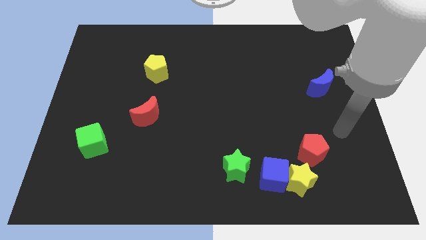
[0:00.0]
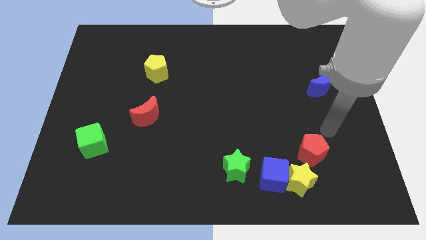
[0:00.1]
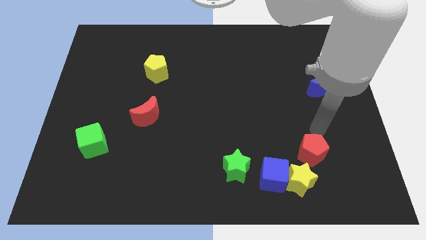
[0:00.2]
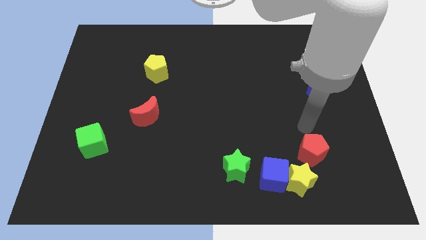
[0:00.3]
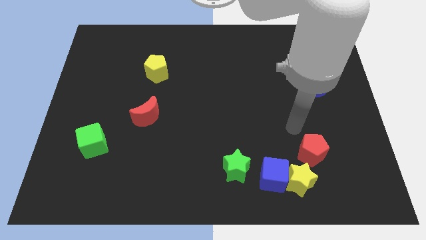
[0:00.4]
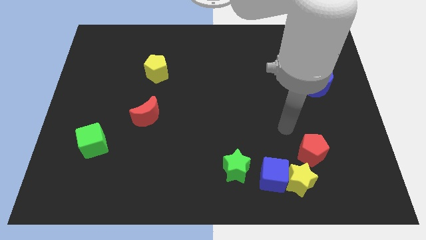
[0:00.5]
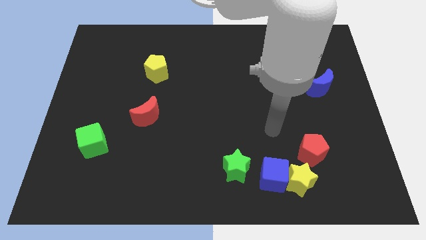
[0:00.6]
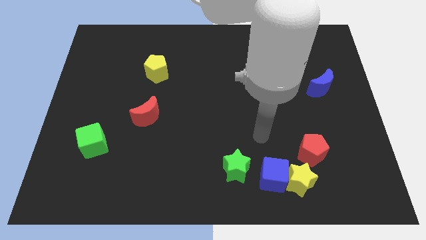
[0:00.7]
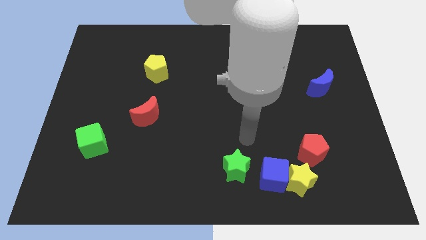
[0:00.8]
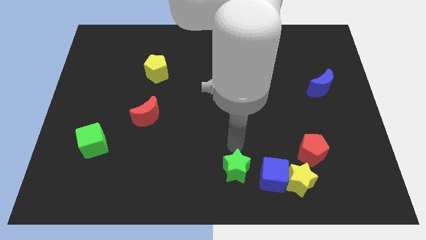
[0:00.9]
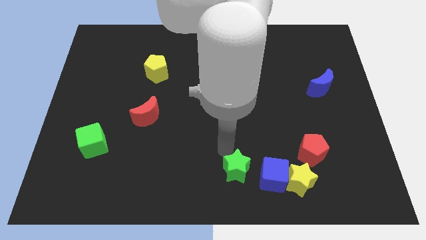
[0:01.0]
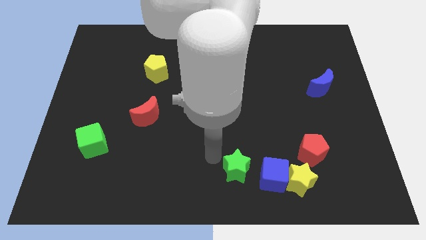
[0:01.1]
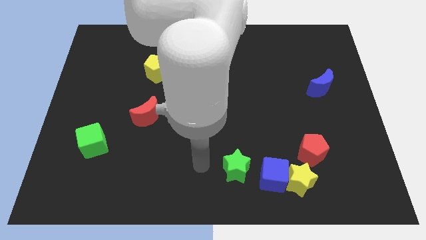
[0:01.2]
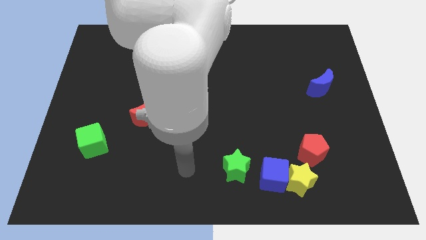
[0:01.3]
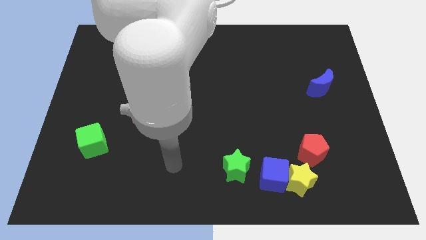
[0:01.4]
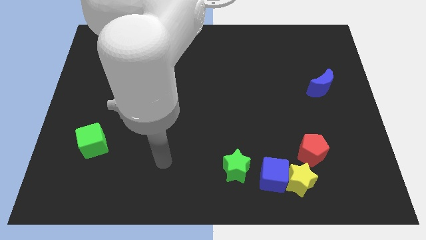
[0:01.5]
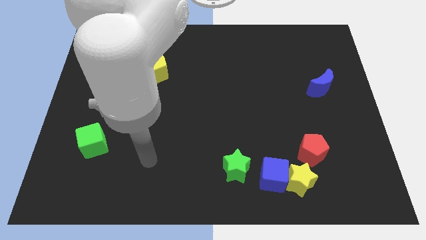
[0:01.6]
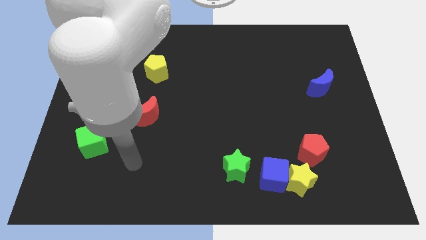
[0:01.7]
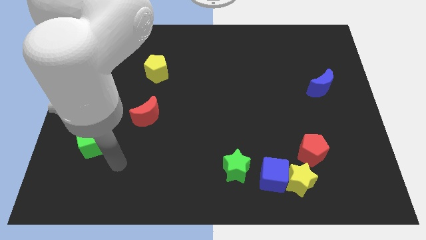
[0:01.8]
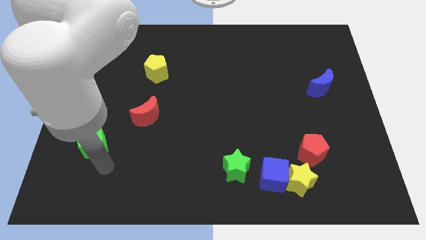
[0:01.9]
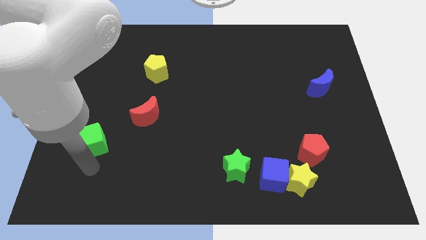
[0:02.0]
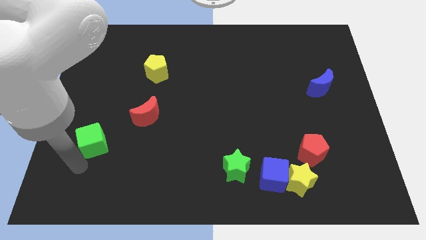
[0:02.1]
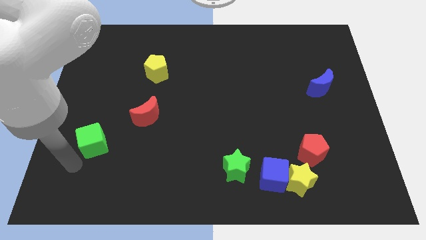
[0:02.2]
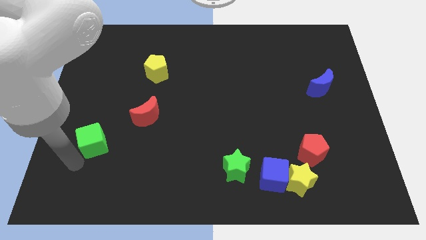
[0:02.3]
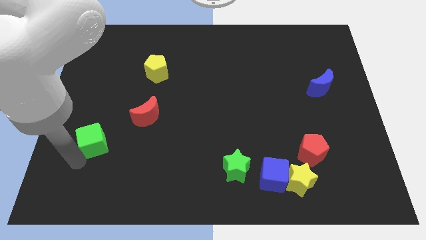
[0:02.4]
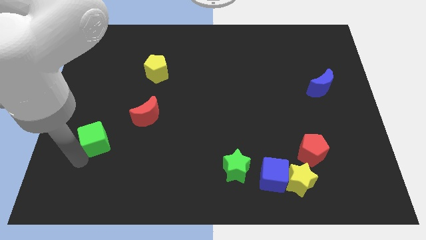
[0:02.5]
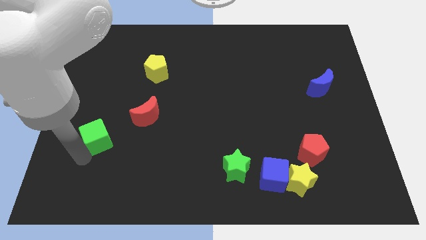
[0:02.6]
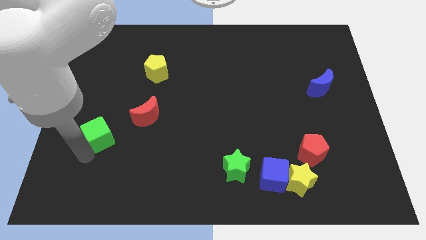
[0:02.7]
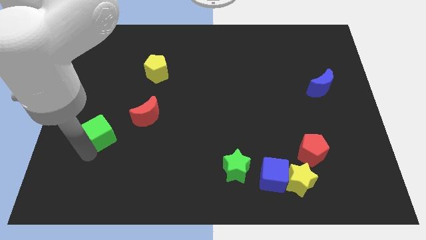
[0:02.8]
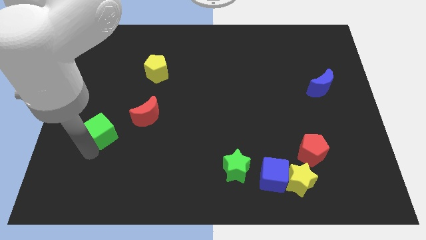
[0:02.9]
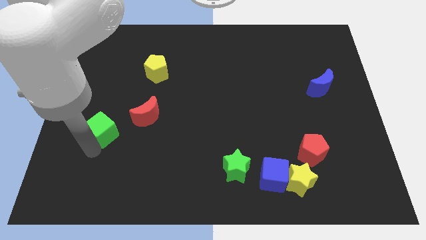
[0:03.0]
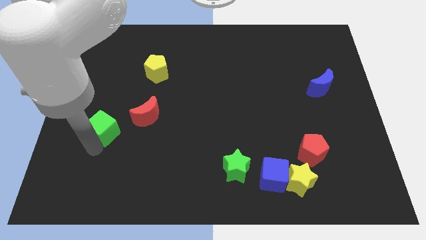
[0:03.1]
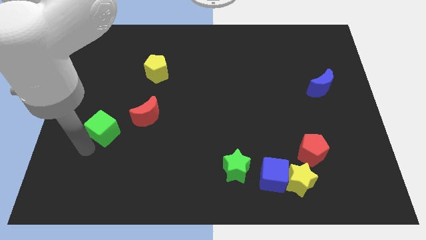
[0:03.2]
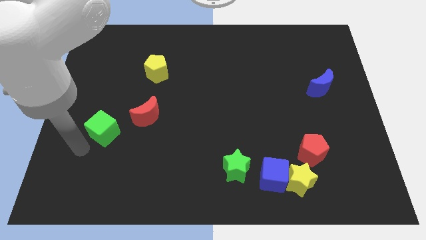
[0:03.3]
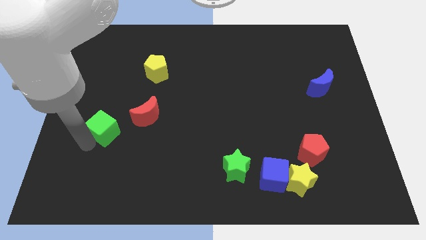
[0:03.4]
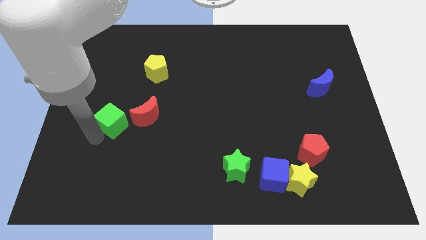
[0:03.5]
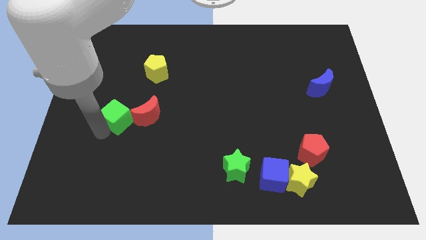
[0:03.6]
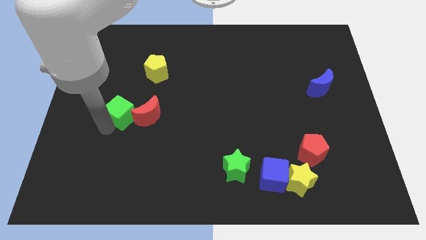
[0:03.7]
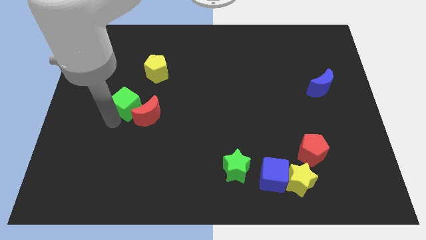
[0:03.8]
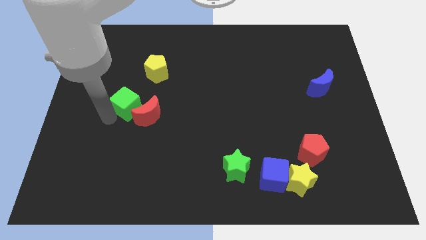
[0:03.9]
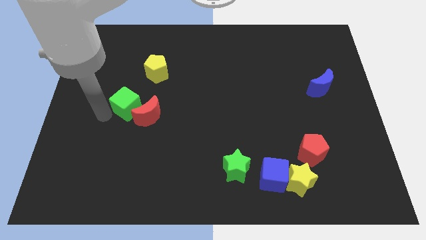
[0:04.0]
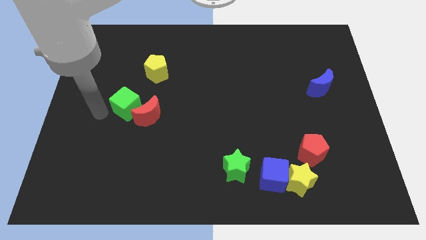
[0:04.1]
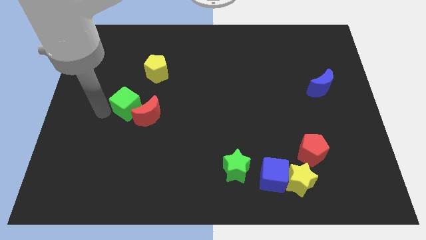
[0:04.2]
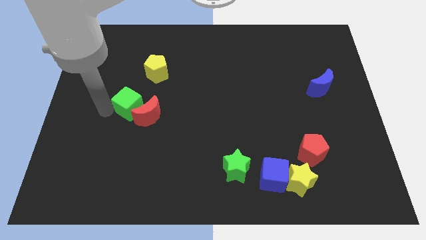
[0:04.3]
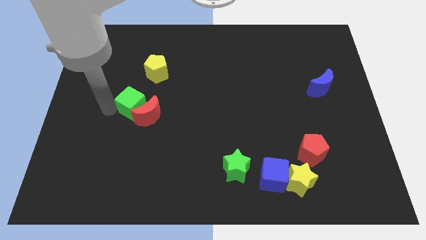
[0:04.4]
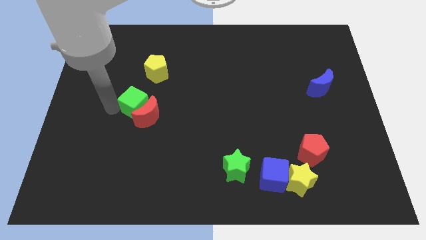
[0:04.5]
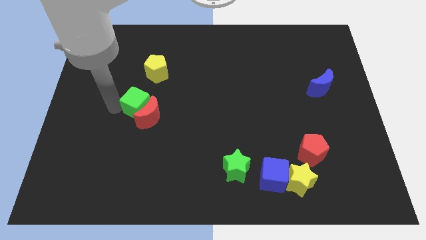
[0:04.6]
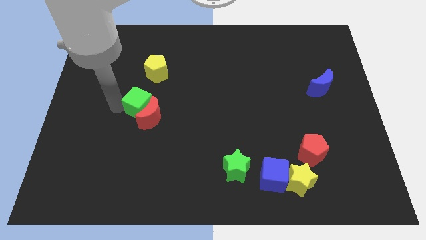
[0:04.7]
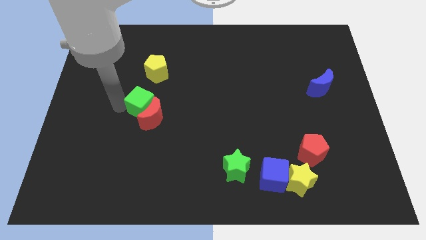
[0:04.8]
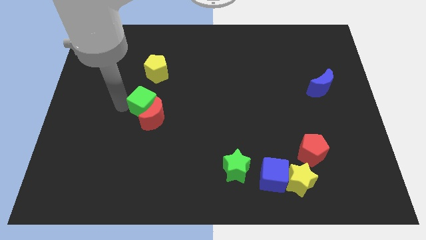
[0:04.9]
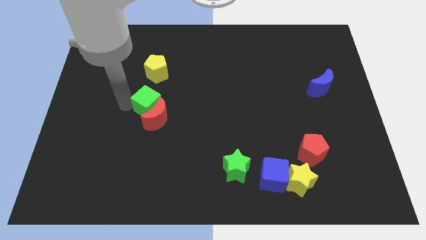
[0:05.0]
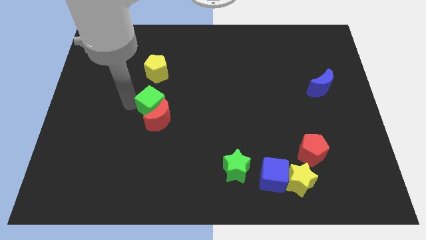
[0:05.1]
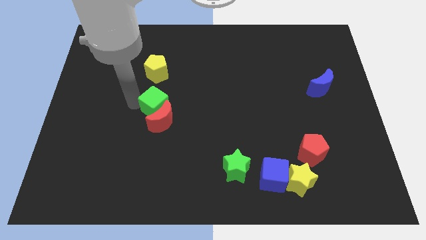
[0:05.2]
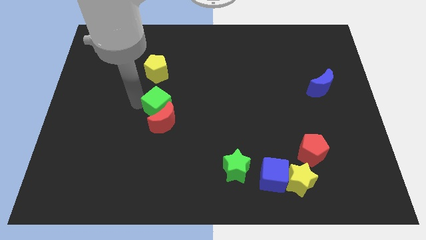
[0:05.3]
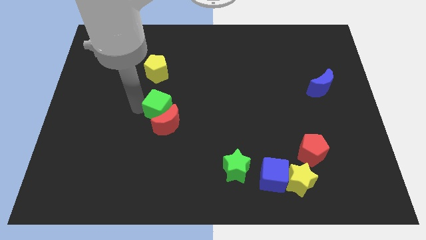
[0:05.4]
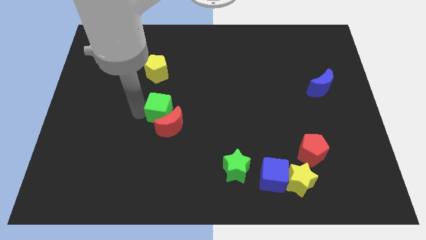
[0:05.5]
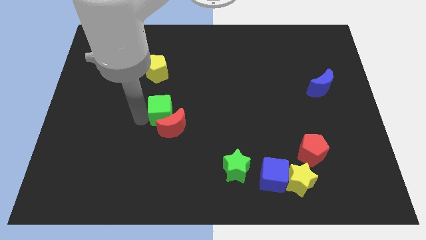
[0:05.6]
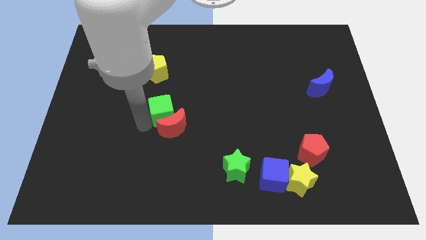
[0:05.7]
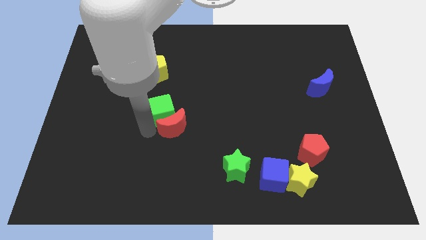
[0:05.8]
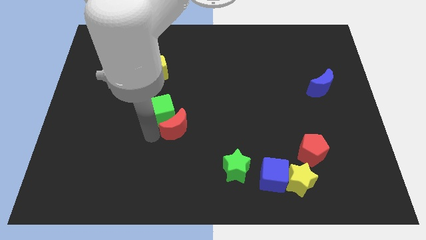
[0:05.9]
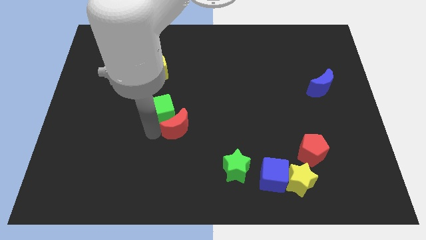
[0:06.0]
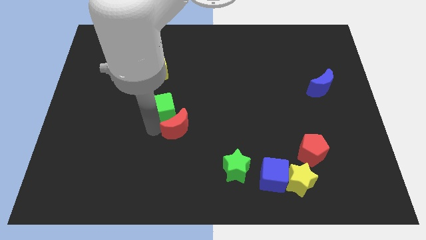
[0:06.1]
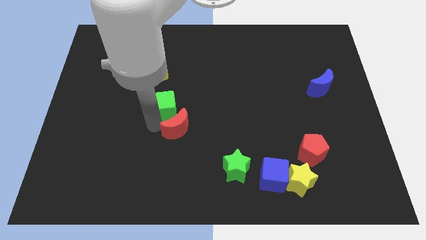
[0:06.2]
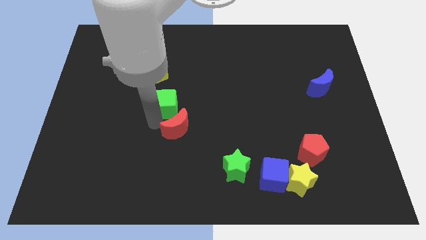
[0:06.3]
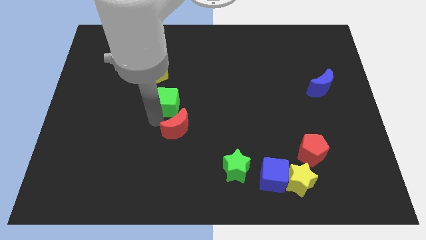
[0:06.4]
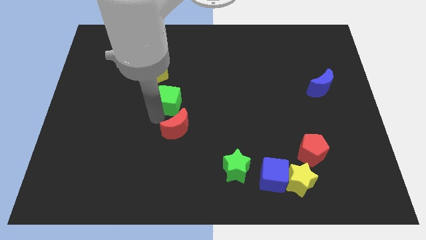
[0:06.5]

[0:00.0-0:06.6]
move the green cube to the bottom right side of the yellow pentagon
